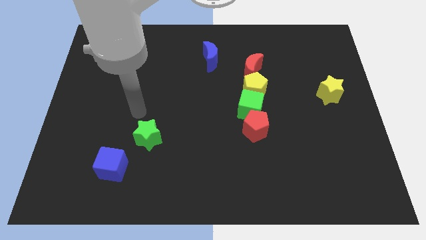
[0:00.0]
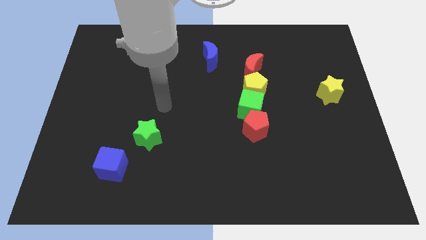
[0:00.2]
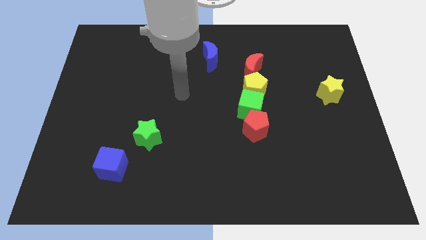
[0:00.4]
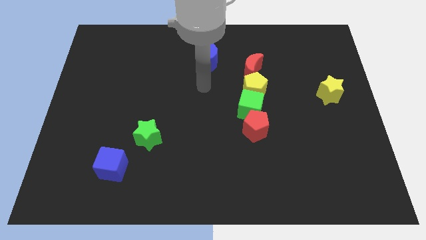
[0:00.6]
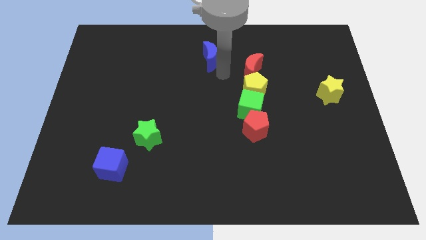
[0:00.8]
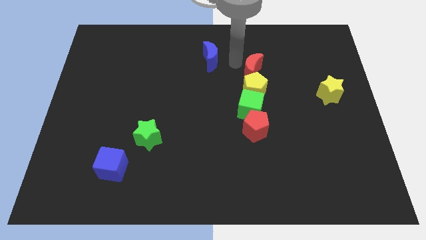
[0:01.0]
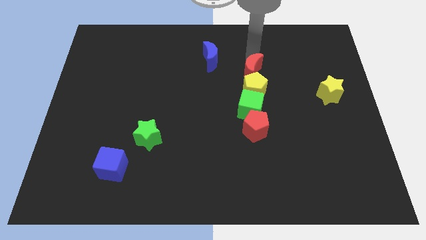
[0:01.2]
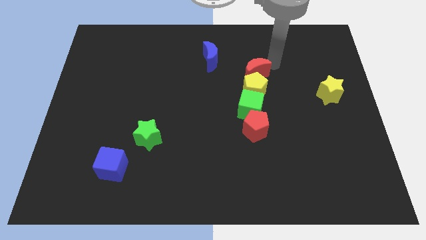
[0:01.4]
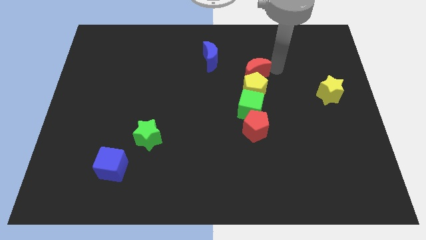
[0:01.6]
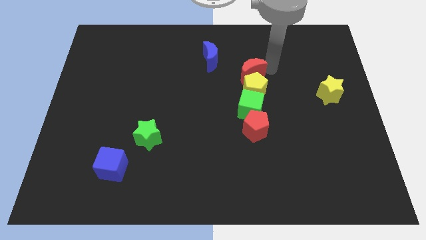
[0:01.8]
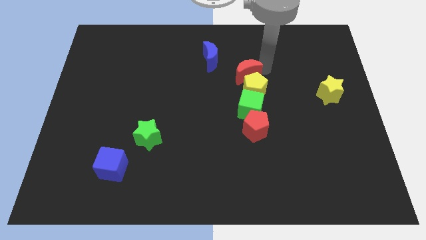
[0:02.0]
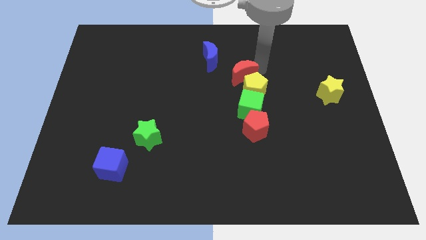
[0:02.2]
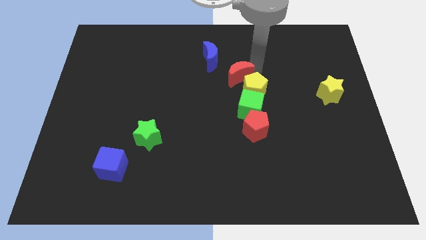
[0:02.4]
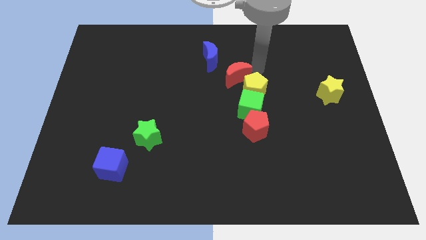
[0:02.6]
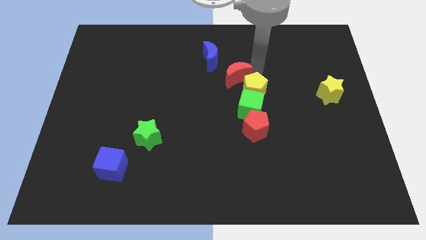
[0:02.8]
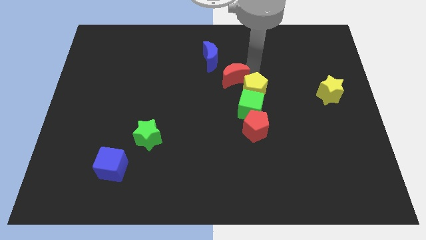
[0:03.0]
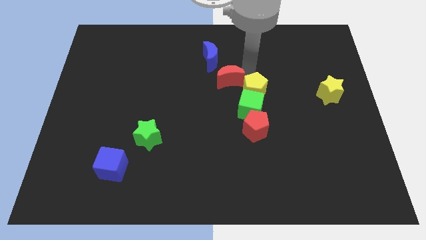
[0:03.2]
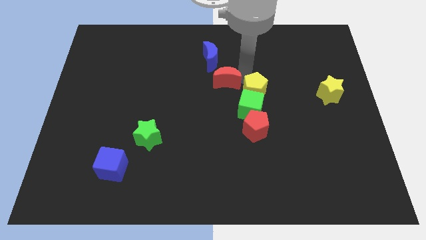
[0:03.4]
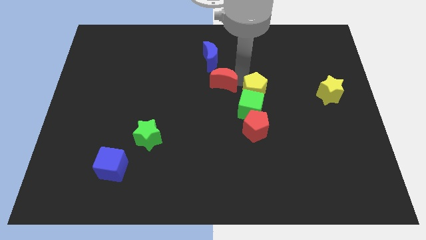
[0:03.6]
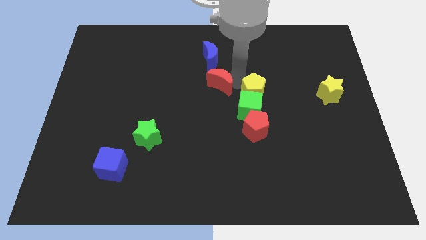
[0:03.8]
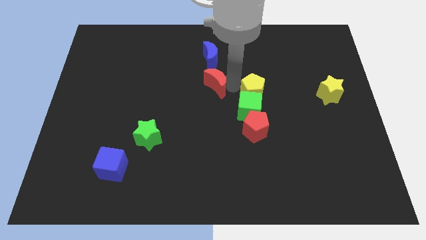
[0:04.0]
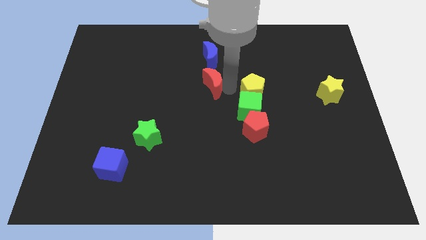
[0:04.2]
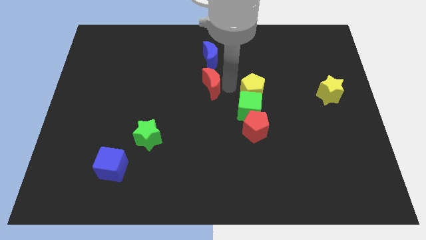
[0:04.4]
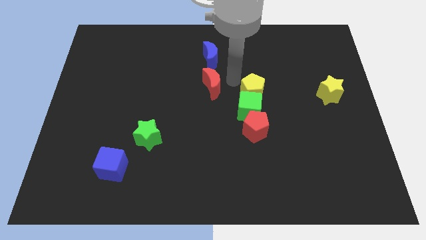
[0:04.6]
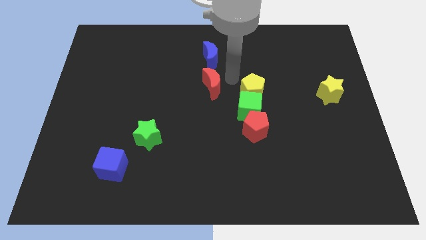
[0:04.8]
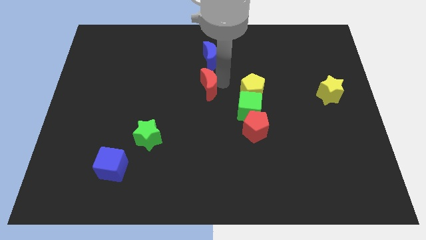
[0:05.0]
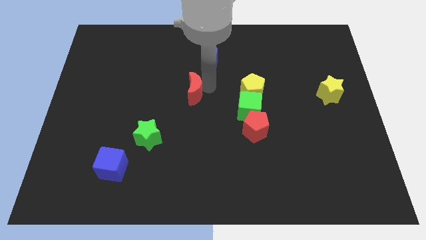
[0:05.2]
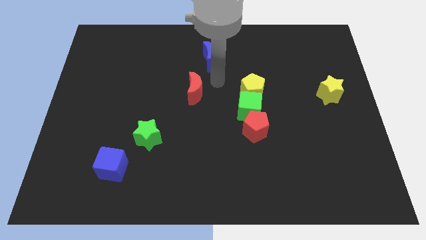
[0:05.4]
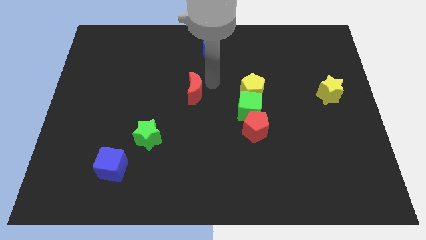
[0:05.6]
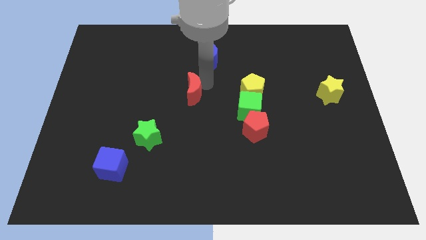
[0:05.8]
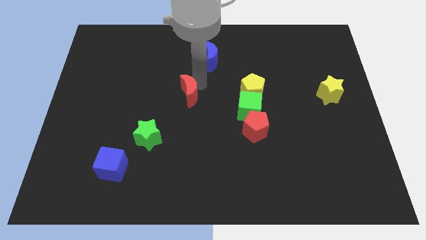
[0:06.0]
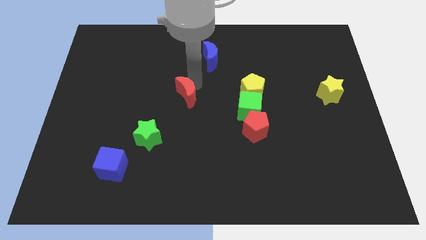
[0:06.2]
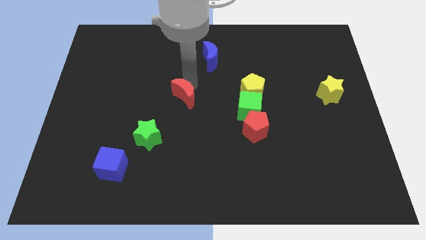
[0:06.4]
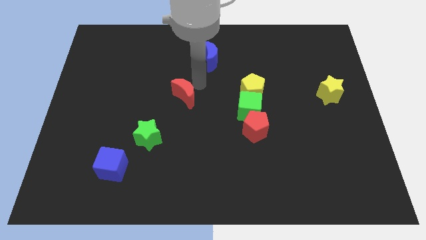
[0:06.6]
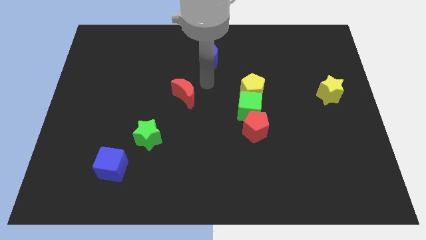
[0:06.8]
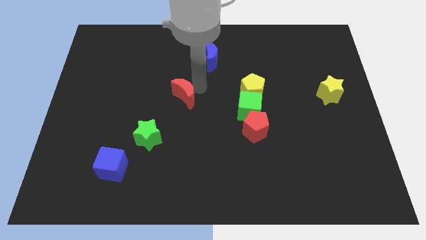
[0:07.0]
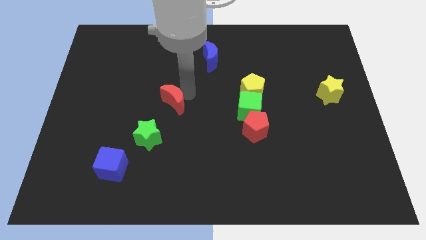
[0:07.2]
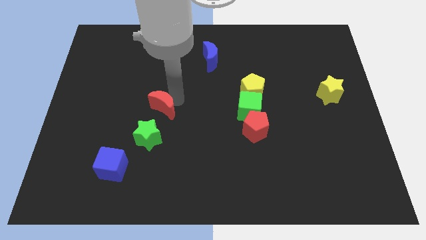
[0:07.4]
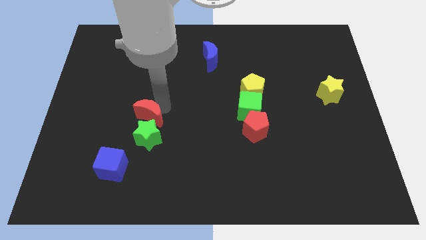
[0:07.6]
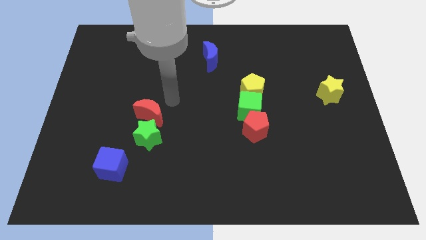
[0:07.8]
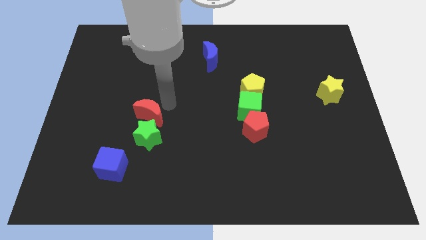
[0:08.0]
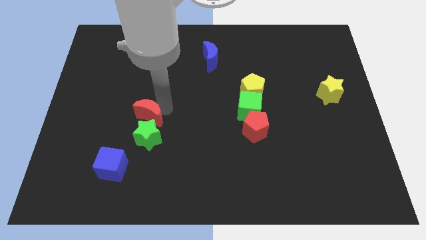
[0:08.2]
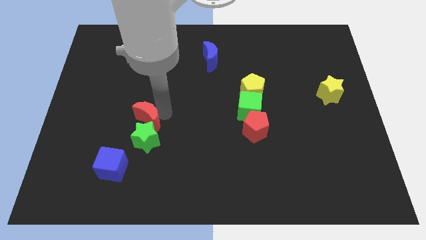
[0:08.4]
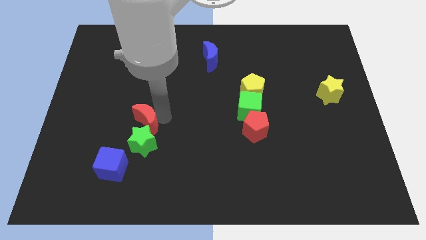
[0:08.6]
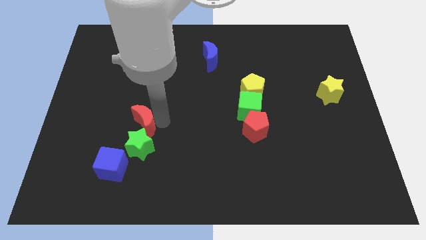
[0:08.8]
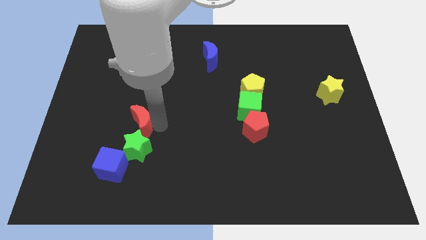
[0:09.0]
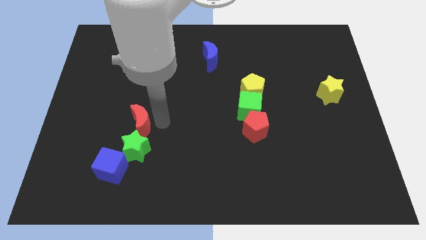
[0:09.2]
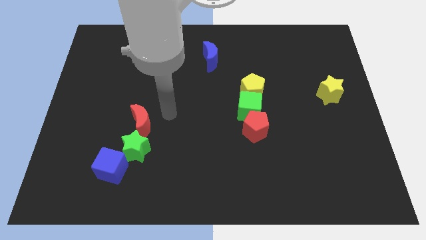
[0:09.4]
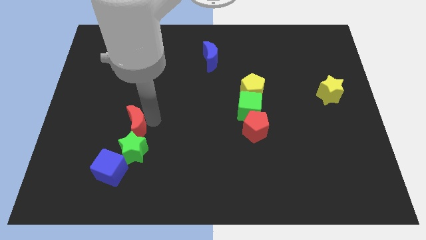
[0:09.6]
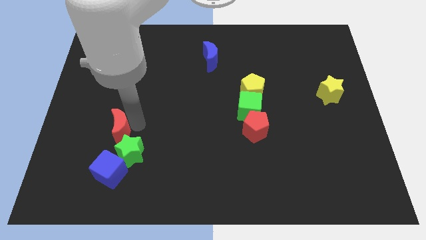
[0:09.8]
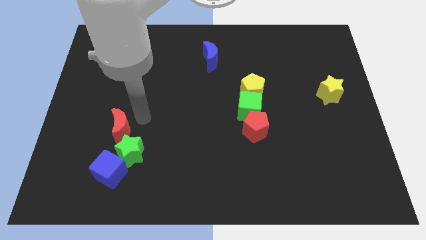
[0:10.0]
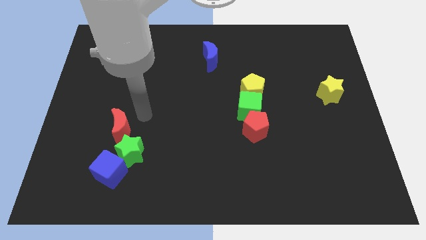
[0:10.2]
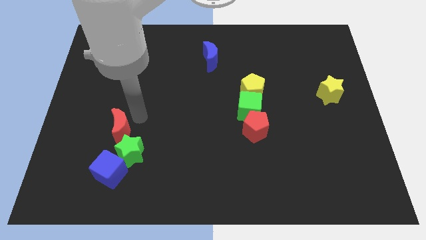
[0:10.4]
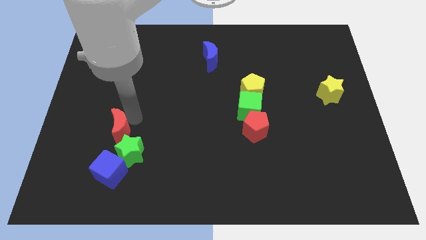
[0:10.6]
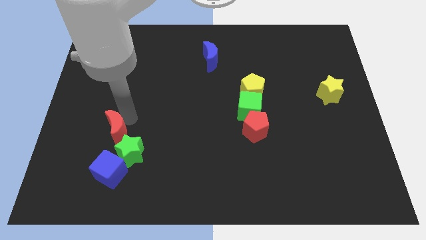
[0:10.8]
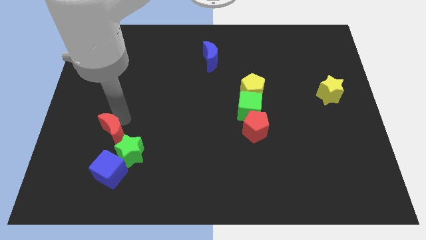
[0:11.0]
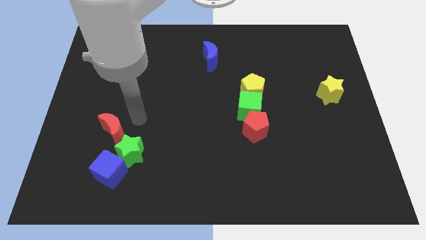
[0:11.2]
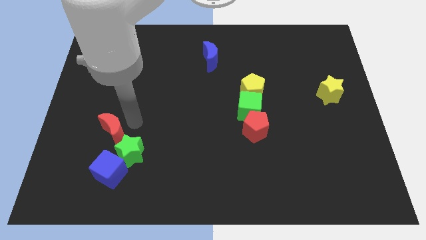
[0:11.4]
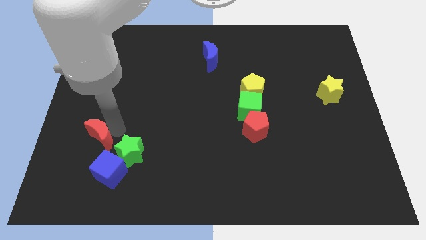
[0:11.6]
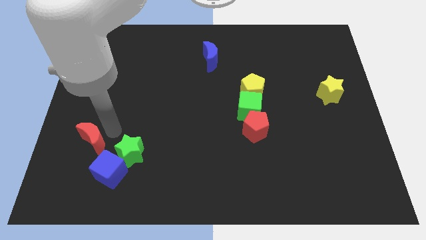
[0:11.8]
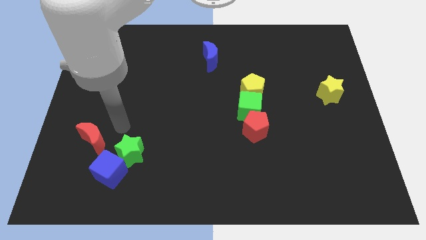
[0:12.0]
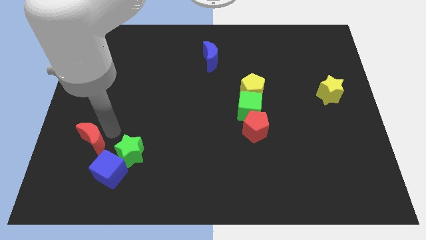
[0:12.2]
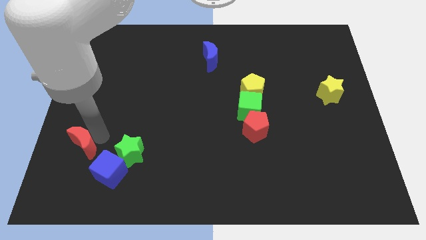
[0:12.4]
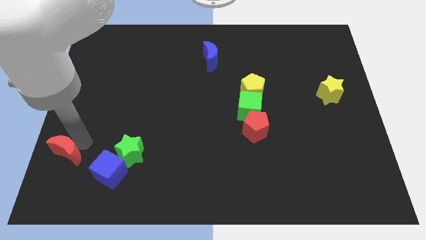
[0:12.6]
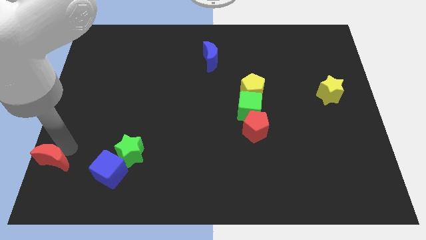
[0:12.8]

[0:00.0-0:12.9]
slide the red moon to the bottom left
